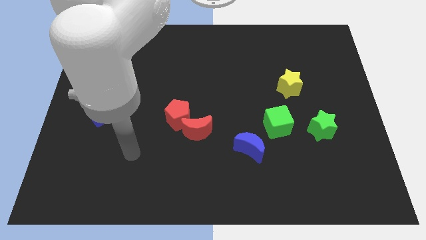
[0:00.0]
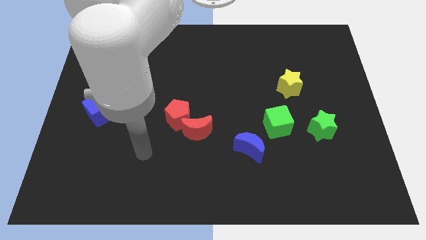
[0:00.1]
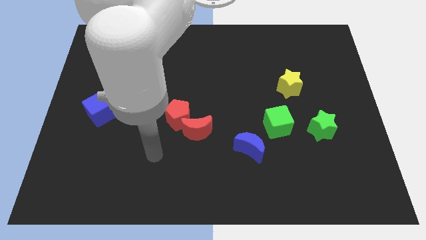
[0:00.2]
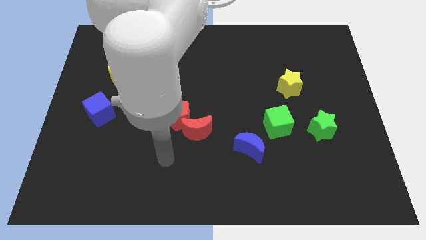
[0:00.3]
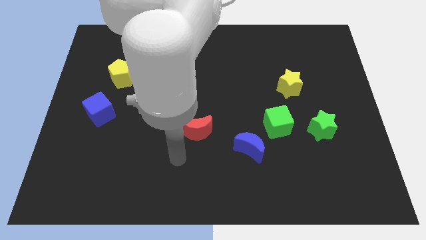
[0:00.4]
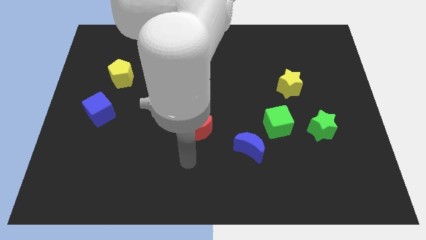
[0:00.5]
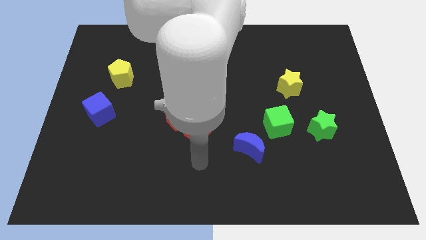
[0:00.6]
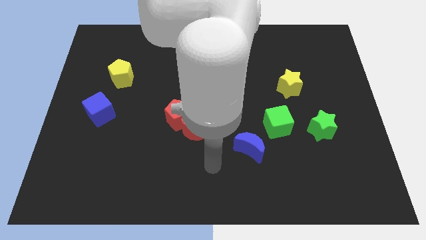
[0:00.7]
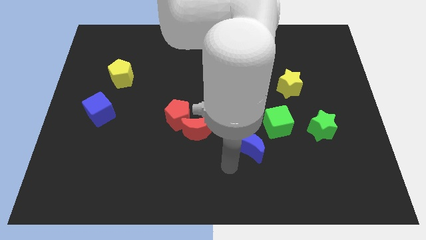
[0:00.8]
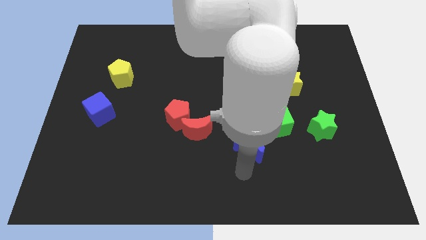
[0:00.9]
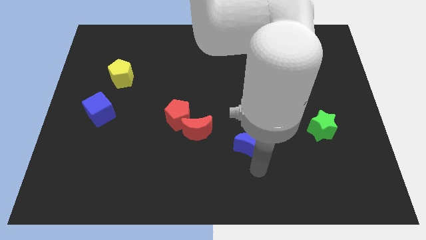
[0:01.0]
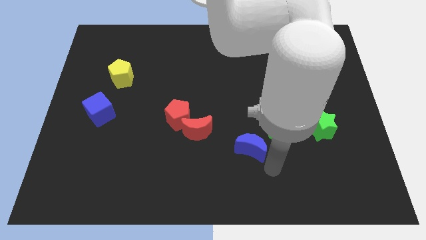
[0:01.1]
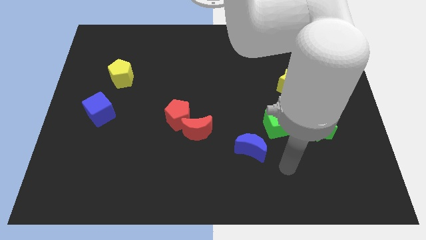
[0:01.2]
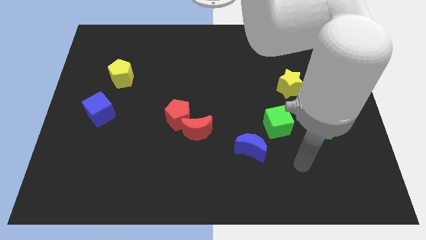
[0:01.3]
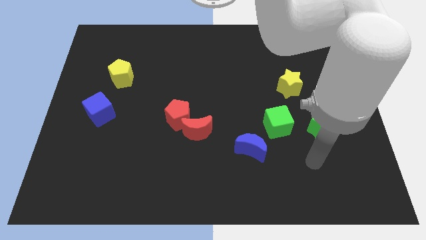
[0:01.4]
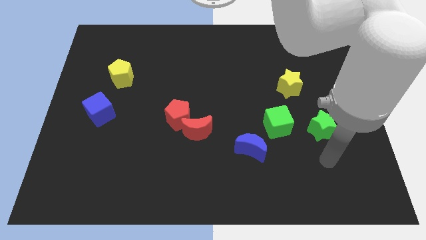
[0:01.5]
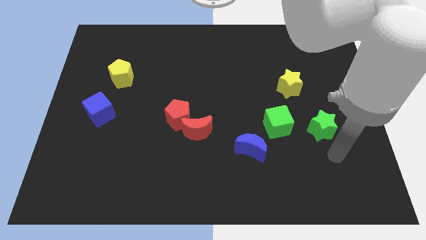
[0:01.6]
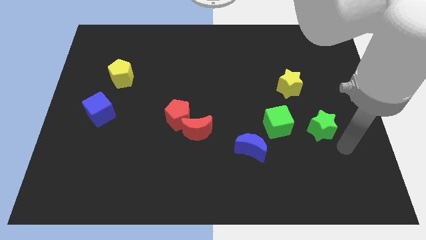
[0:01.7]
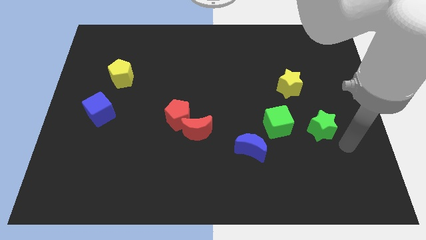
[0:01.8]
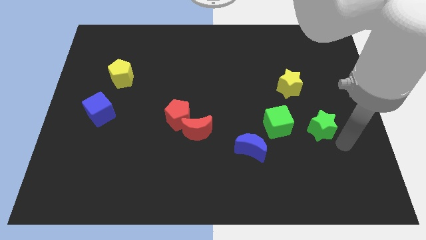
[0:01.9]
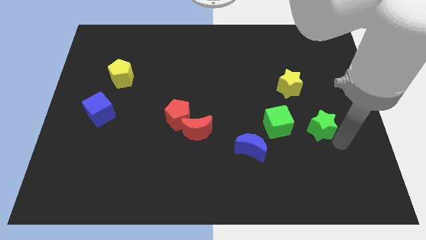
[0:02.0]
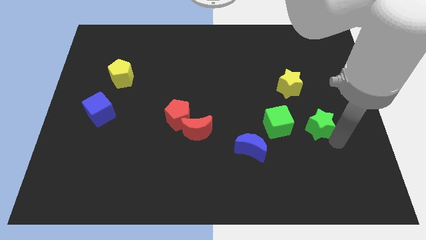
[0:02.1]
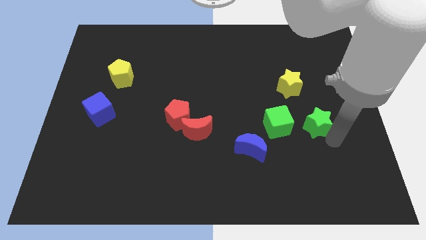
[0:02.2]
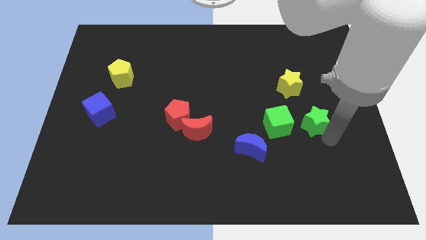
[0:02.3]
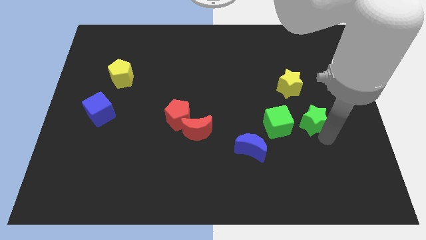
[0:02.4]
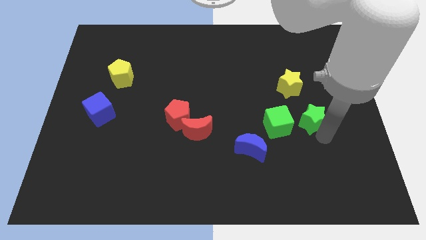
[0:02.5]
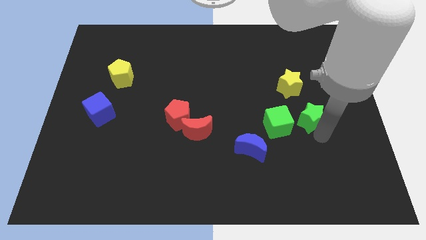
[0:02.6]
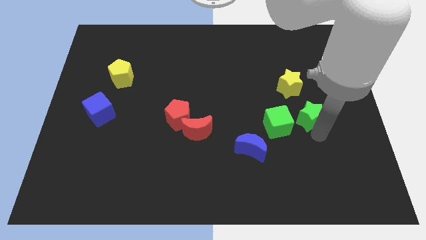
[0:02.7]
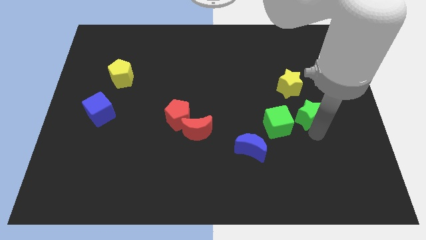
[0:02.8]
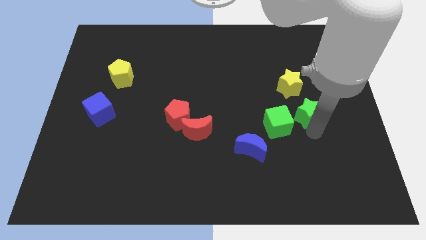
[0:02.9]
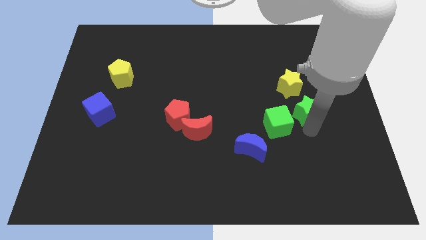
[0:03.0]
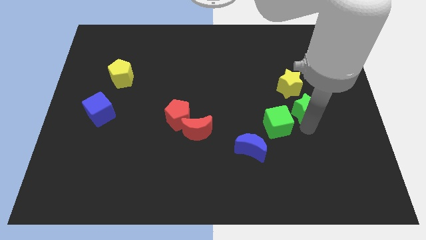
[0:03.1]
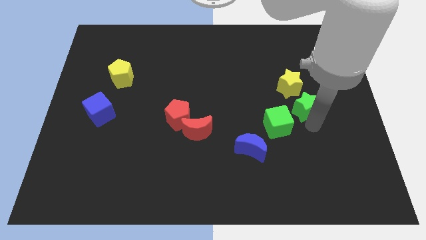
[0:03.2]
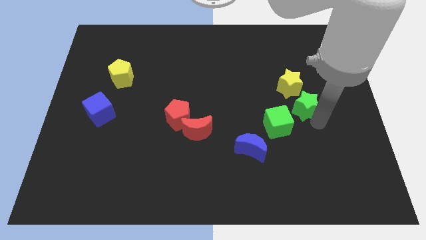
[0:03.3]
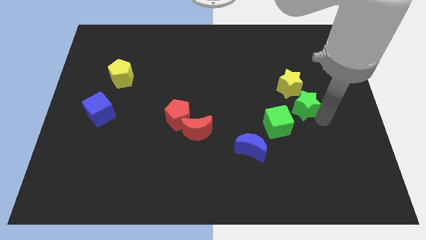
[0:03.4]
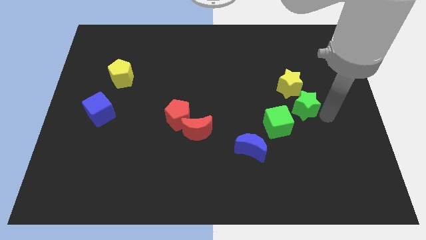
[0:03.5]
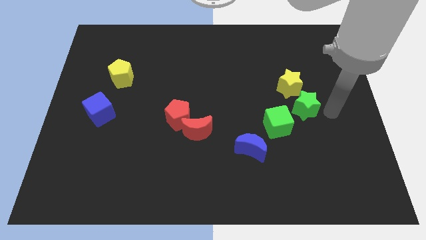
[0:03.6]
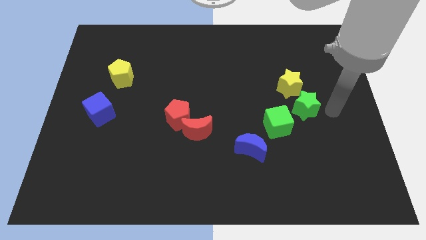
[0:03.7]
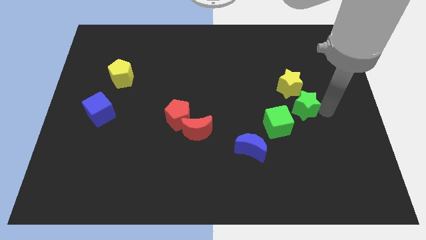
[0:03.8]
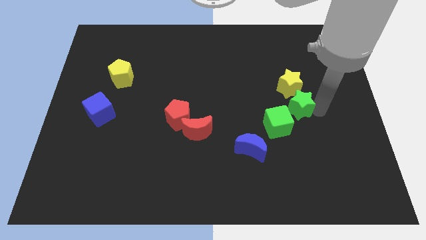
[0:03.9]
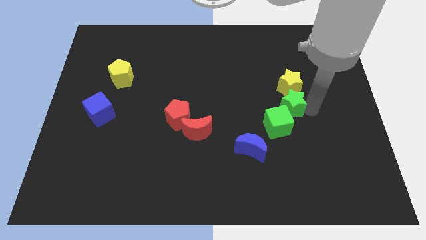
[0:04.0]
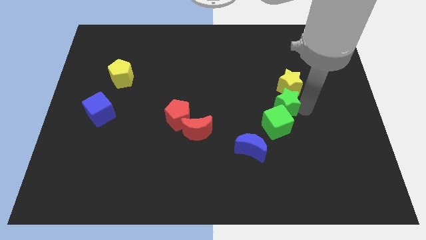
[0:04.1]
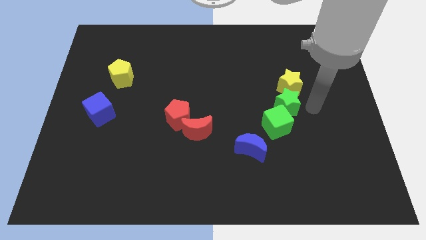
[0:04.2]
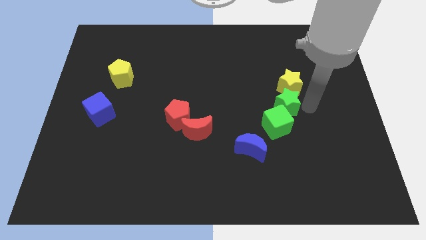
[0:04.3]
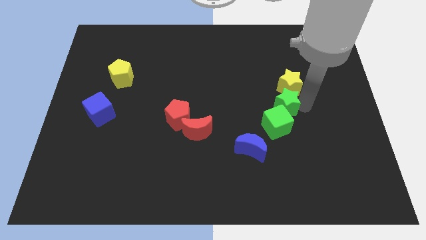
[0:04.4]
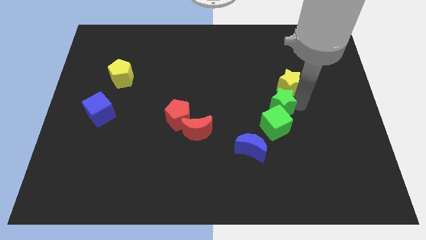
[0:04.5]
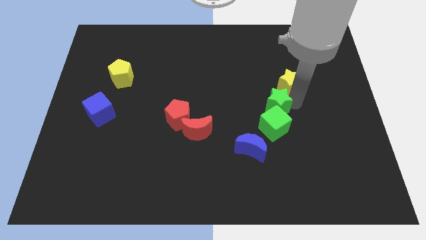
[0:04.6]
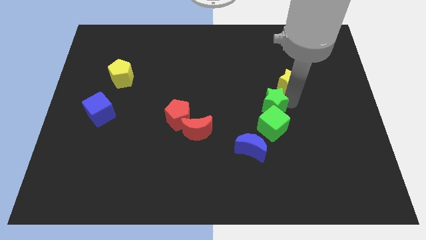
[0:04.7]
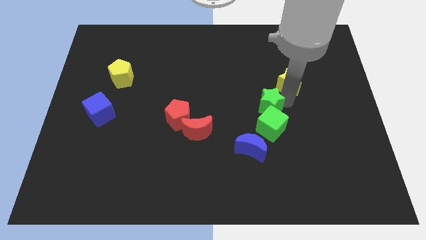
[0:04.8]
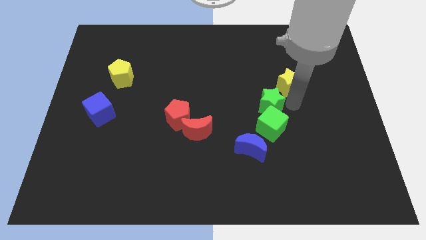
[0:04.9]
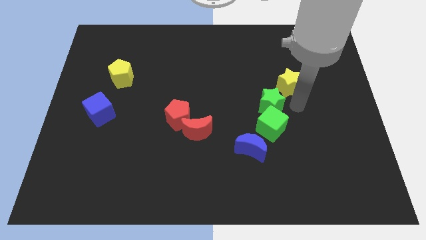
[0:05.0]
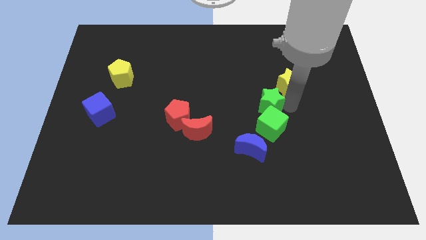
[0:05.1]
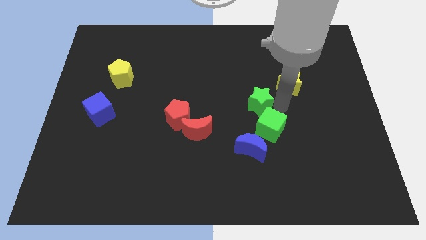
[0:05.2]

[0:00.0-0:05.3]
put the green star to the middle of the board

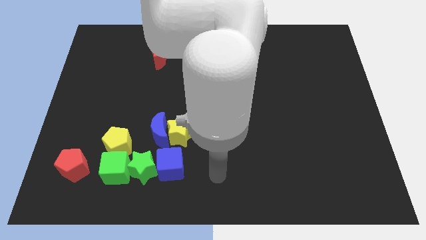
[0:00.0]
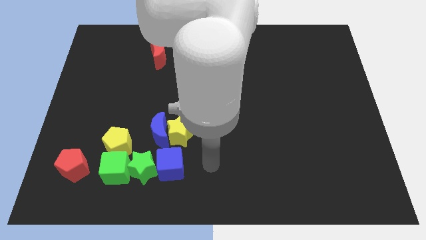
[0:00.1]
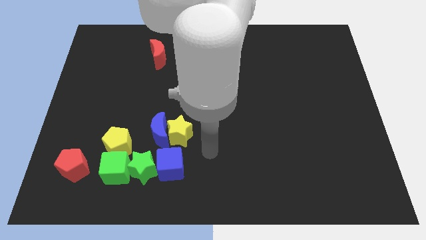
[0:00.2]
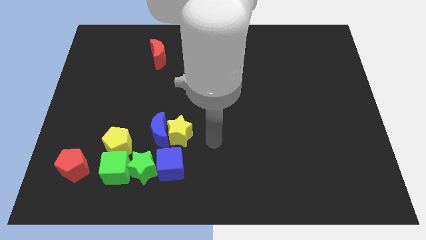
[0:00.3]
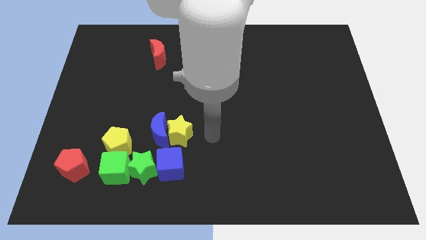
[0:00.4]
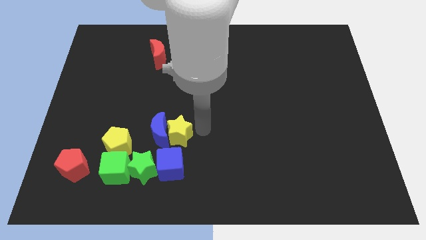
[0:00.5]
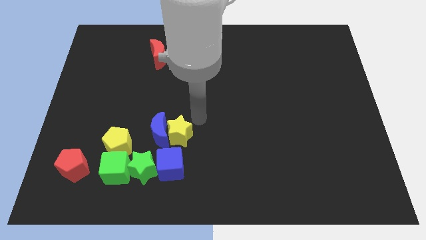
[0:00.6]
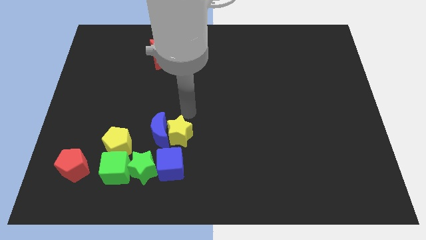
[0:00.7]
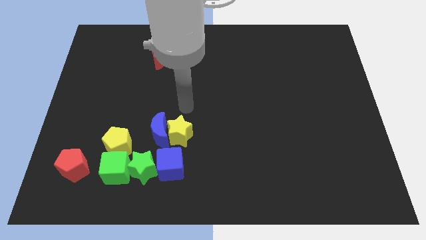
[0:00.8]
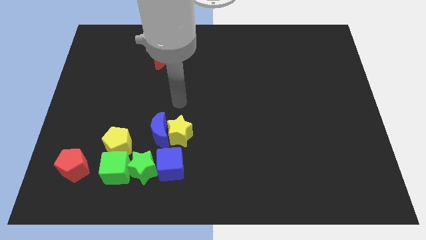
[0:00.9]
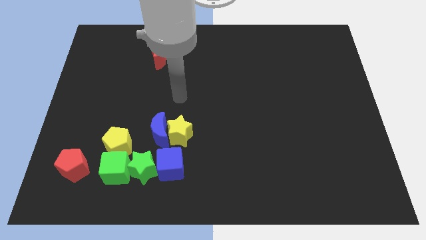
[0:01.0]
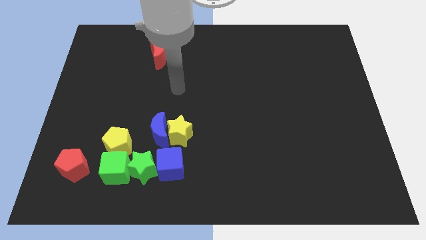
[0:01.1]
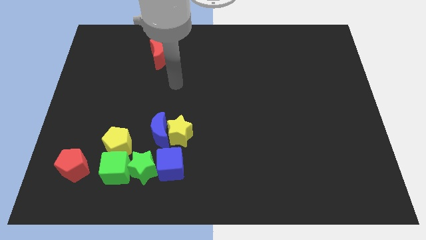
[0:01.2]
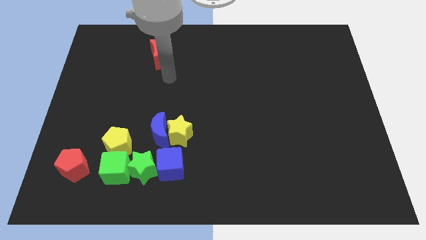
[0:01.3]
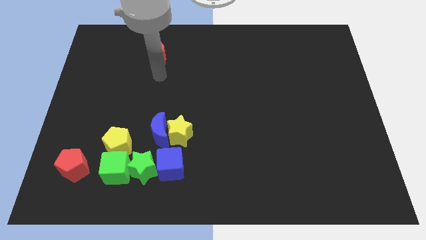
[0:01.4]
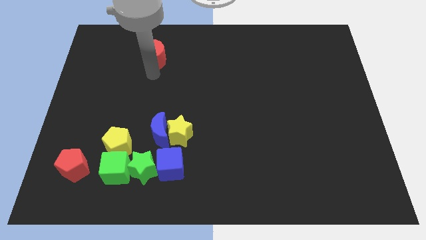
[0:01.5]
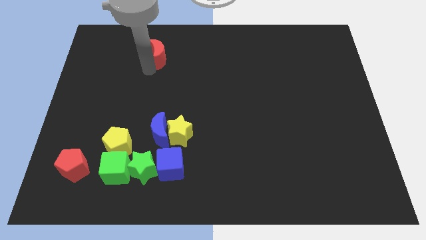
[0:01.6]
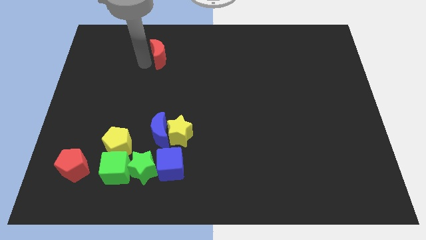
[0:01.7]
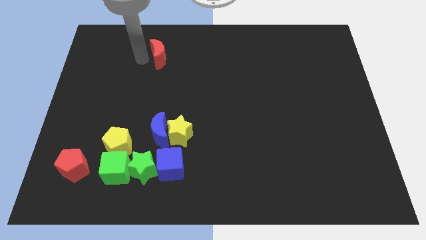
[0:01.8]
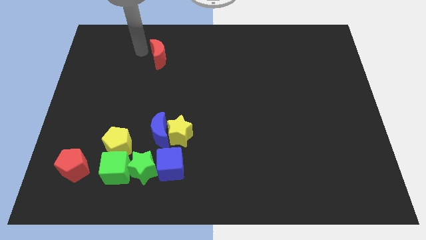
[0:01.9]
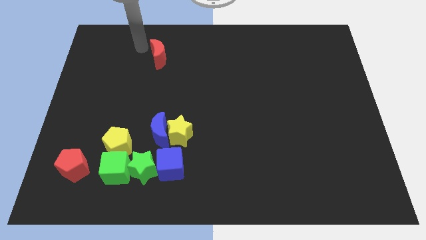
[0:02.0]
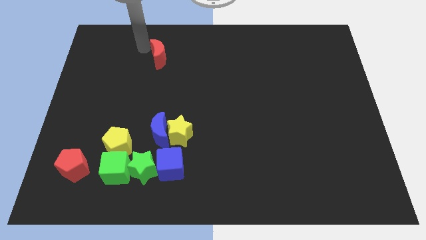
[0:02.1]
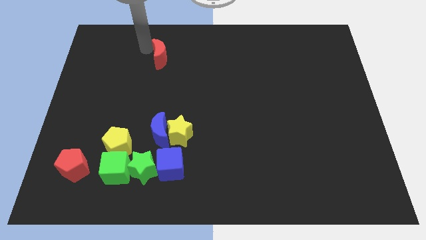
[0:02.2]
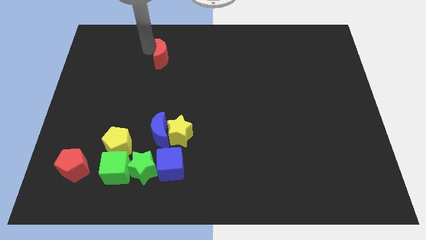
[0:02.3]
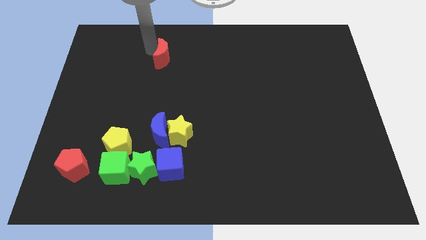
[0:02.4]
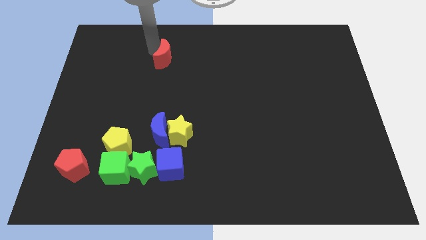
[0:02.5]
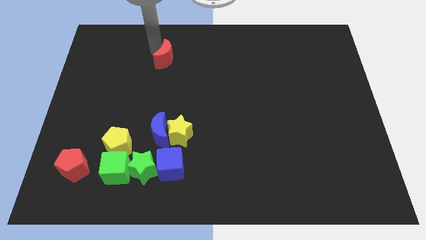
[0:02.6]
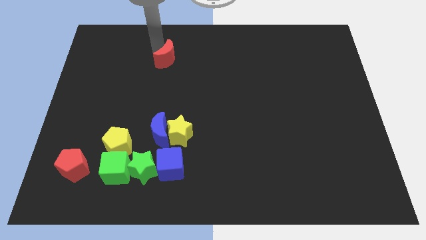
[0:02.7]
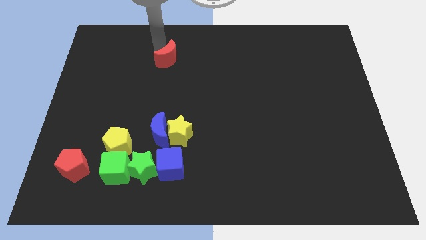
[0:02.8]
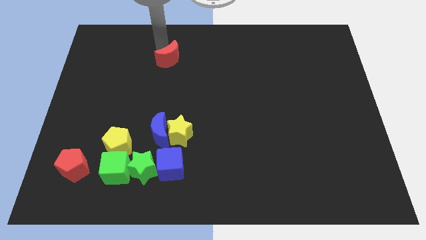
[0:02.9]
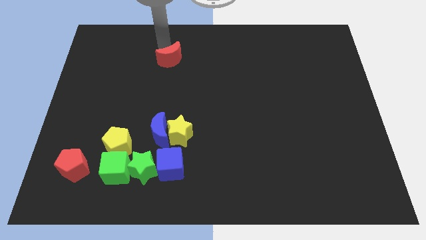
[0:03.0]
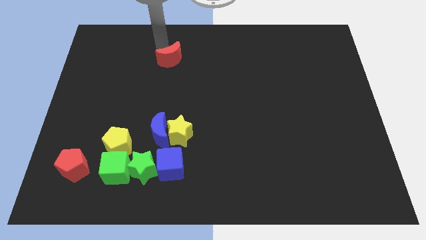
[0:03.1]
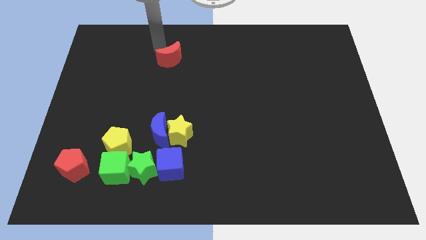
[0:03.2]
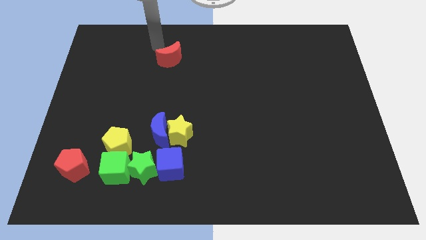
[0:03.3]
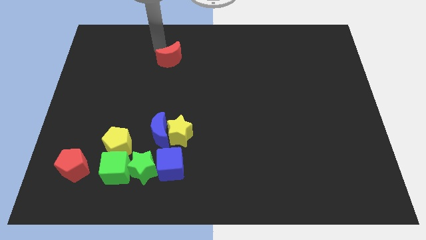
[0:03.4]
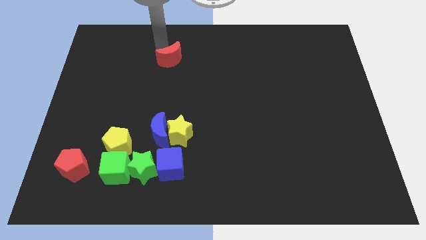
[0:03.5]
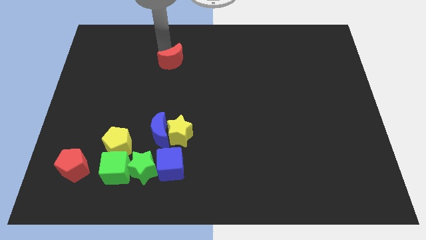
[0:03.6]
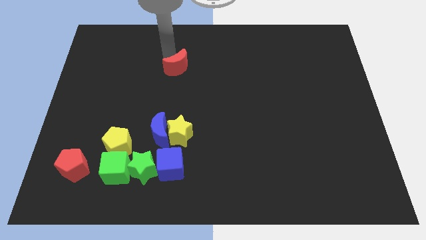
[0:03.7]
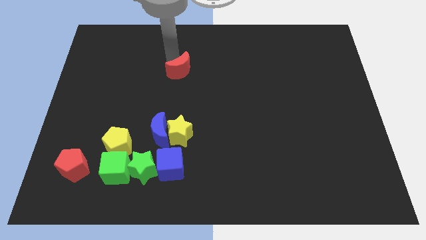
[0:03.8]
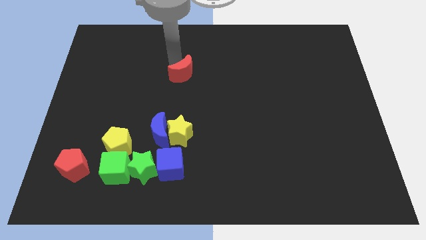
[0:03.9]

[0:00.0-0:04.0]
slide the red moon to the middle
